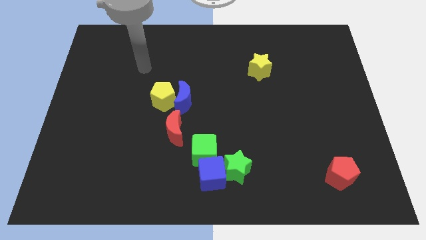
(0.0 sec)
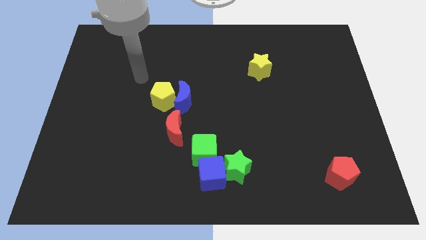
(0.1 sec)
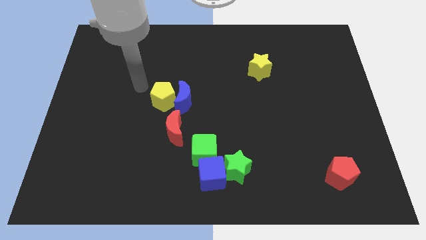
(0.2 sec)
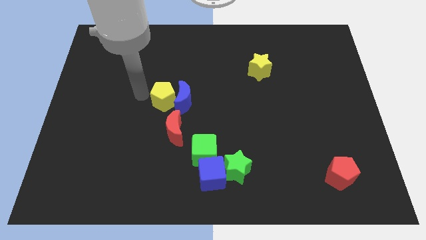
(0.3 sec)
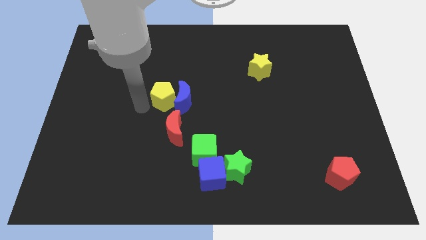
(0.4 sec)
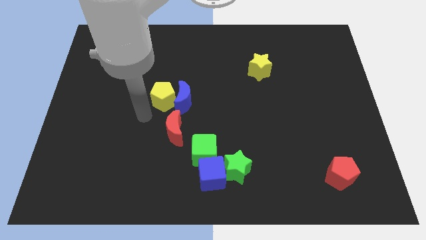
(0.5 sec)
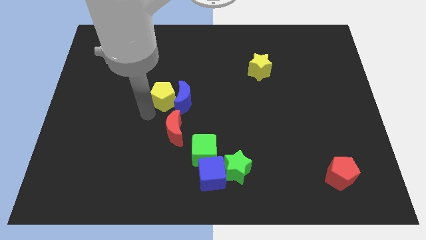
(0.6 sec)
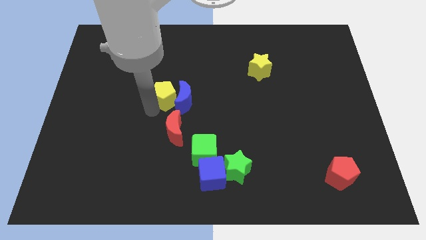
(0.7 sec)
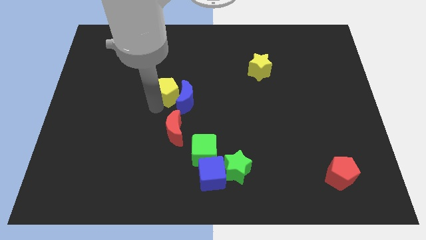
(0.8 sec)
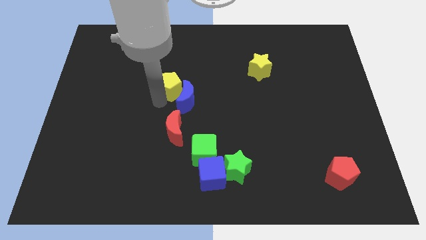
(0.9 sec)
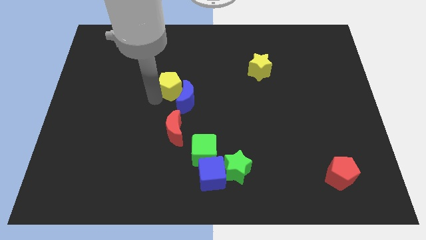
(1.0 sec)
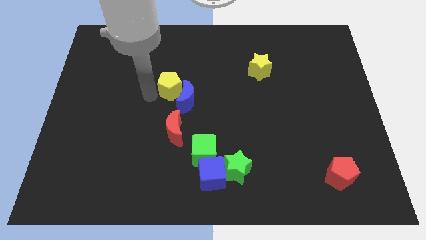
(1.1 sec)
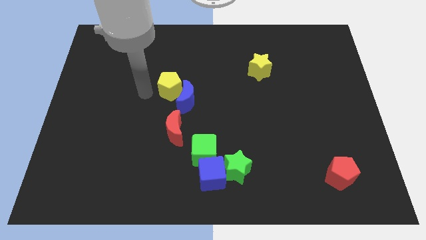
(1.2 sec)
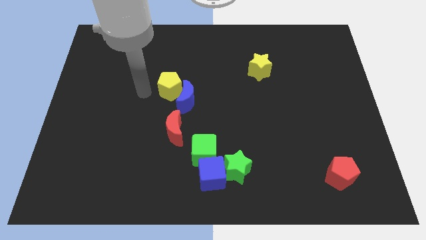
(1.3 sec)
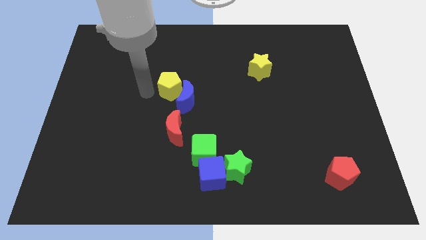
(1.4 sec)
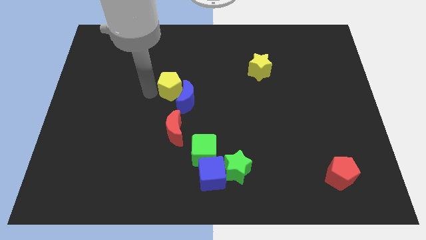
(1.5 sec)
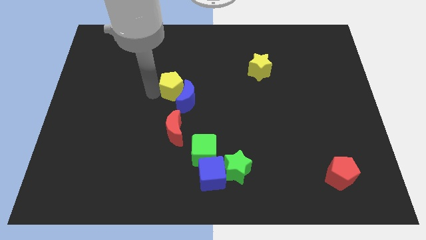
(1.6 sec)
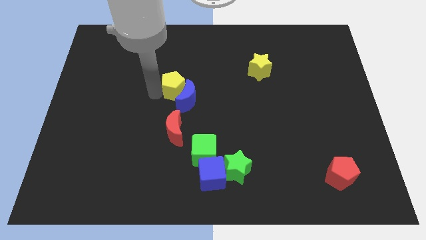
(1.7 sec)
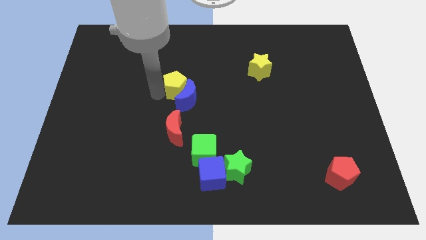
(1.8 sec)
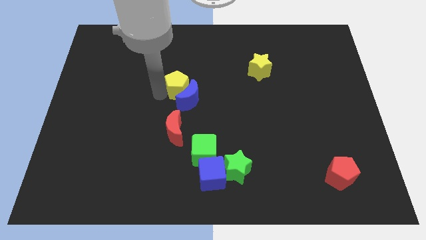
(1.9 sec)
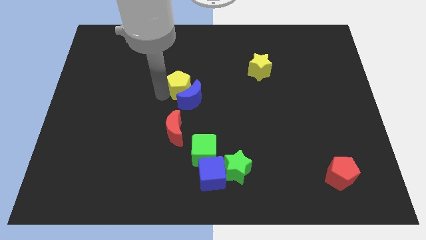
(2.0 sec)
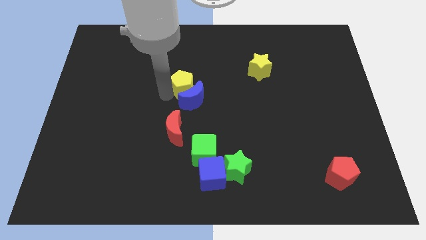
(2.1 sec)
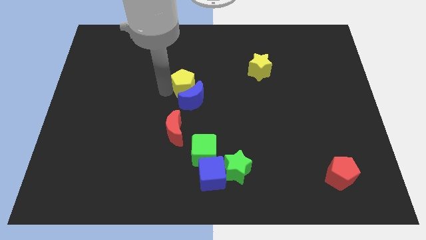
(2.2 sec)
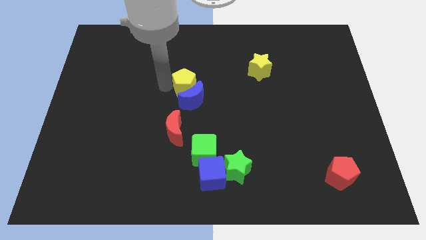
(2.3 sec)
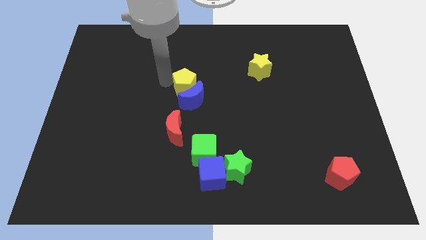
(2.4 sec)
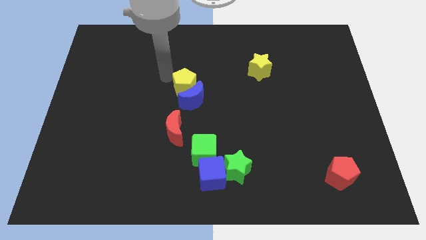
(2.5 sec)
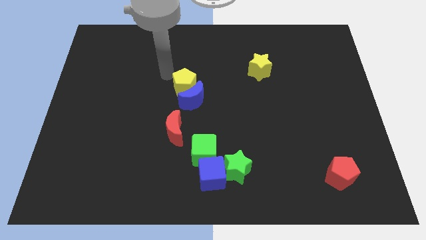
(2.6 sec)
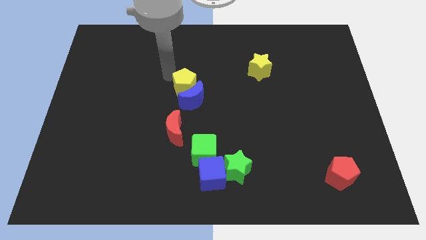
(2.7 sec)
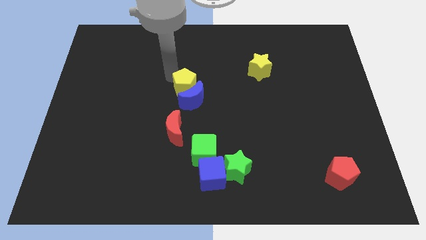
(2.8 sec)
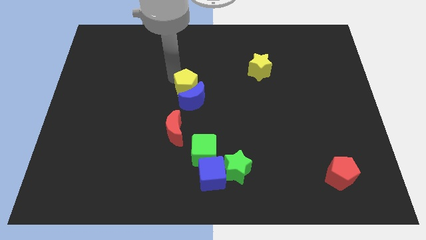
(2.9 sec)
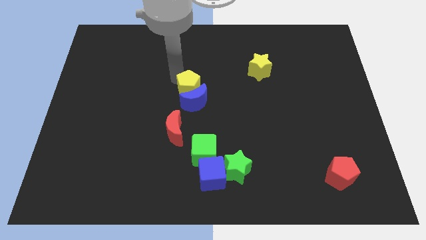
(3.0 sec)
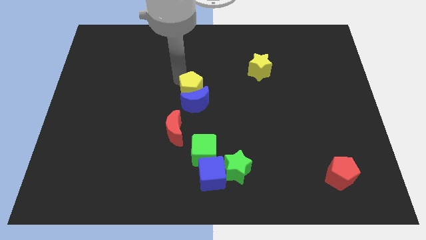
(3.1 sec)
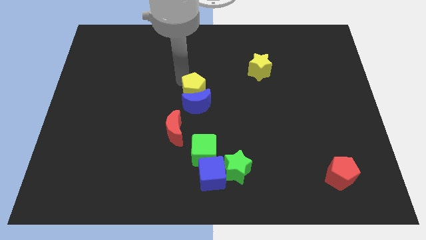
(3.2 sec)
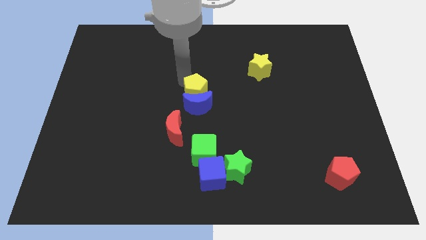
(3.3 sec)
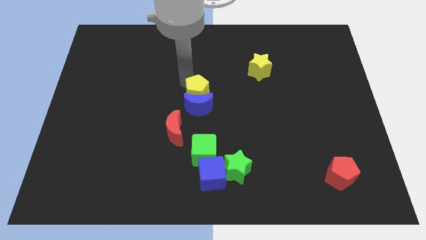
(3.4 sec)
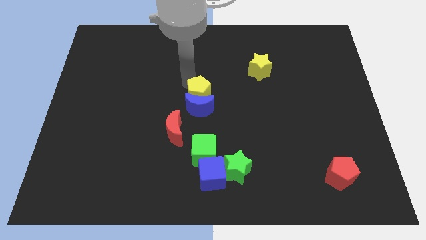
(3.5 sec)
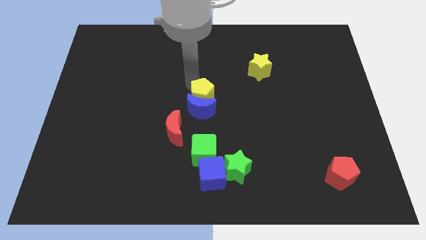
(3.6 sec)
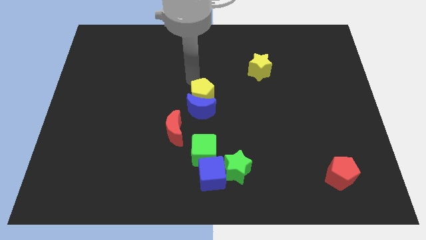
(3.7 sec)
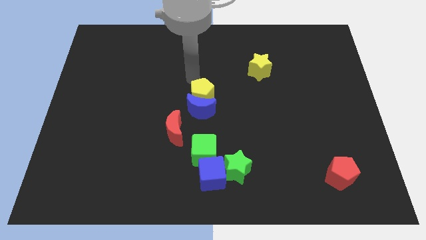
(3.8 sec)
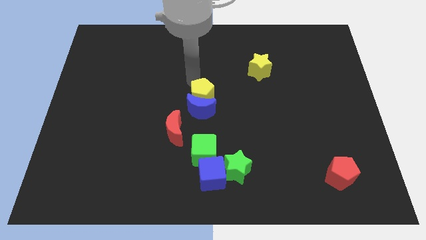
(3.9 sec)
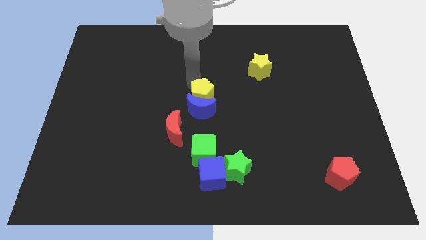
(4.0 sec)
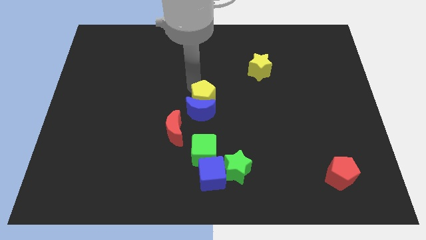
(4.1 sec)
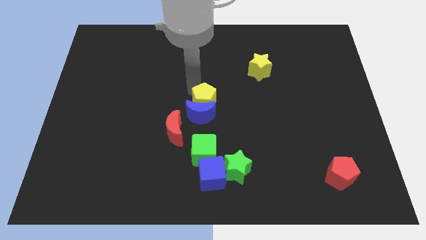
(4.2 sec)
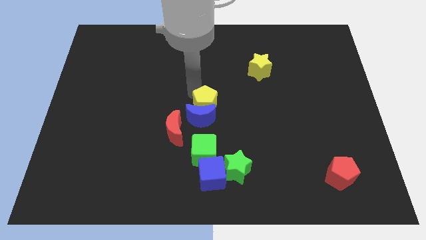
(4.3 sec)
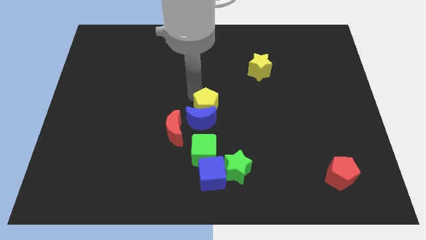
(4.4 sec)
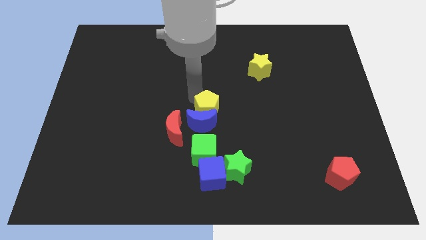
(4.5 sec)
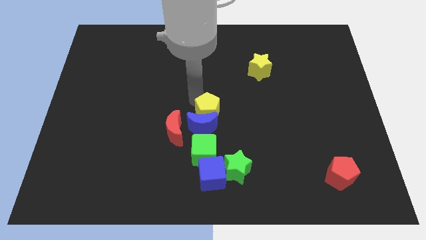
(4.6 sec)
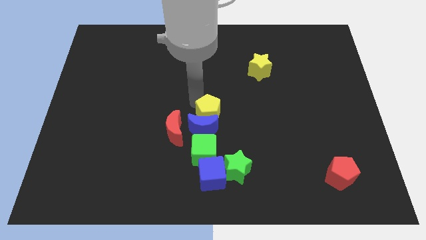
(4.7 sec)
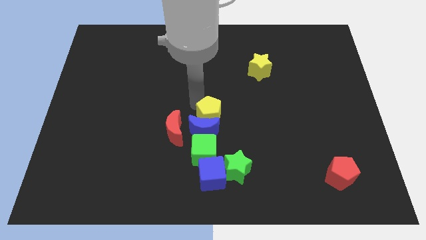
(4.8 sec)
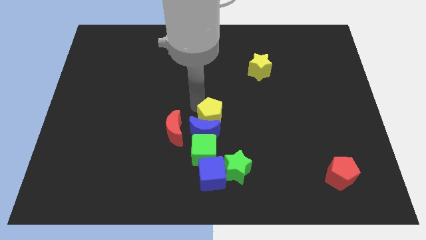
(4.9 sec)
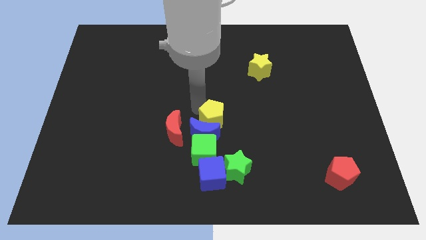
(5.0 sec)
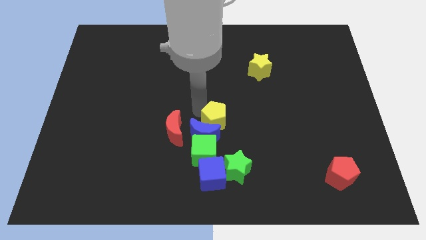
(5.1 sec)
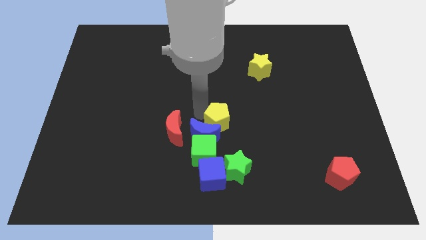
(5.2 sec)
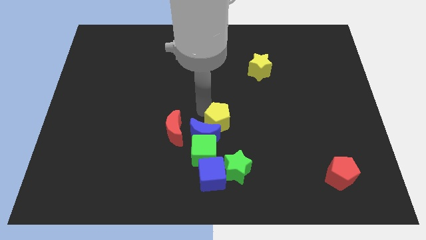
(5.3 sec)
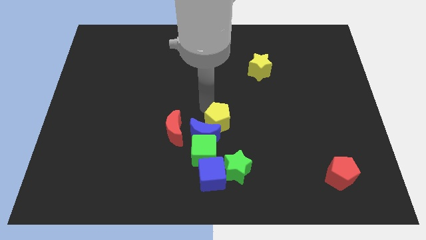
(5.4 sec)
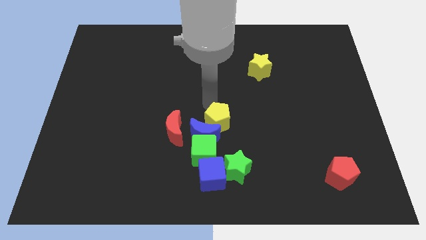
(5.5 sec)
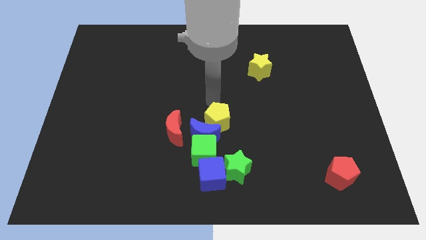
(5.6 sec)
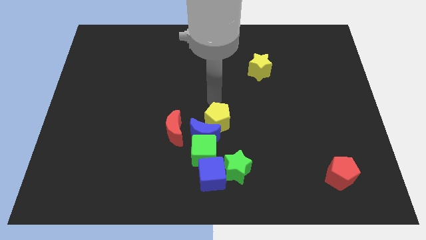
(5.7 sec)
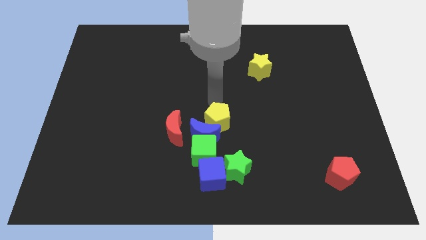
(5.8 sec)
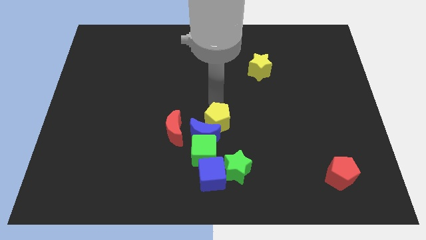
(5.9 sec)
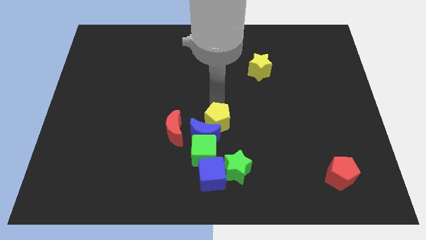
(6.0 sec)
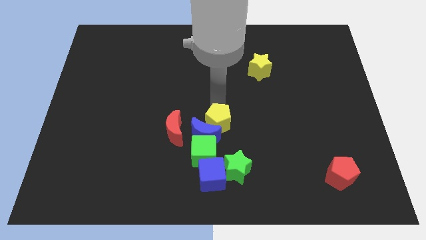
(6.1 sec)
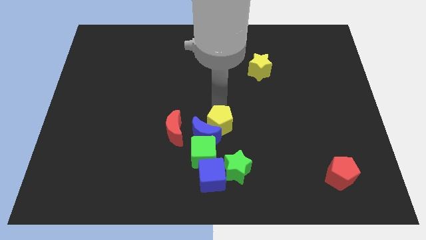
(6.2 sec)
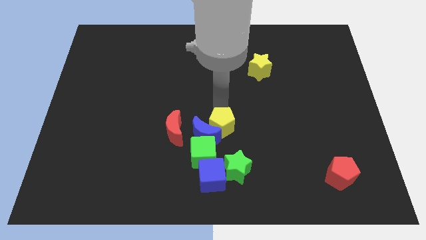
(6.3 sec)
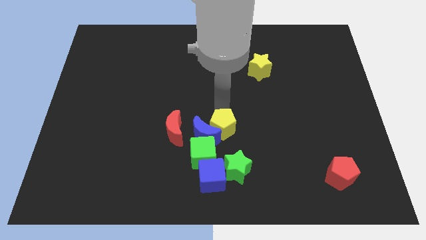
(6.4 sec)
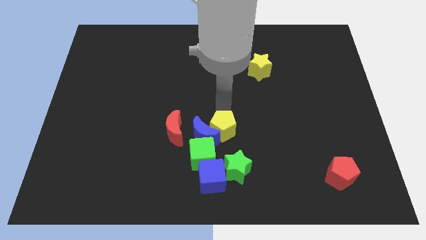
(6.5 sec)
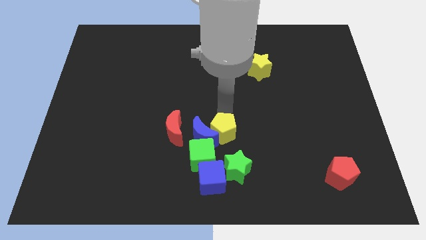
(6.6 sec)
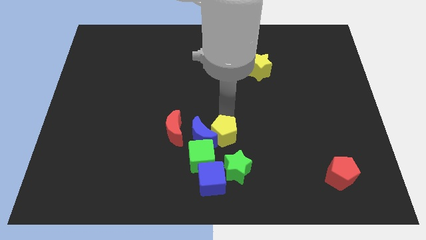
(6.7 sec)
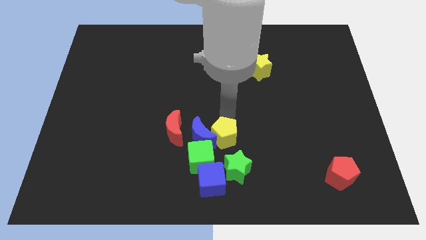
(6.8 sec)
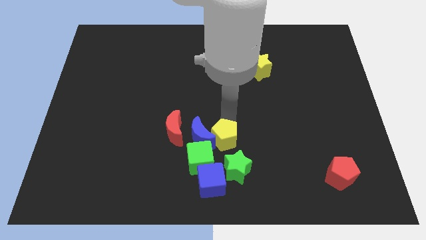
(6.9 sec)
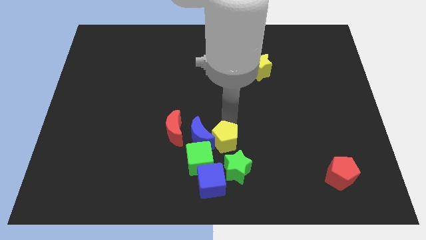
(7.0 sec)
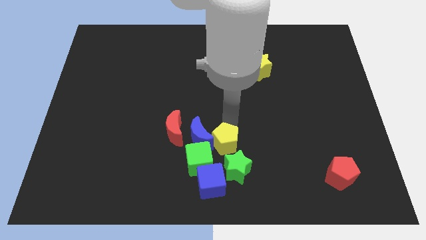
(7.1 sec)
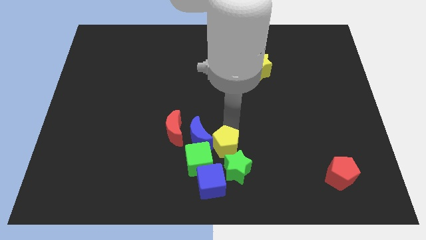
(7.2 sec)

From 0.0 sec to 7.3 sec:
move the yellow pentagon close to the green star

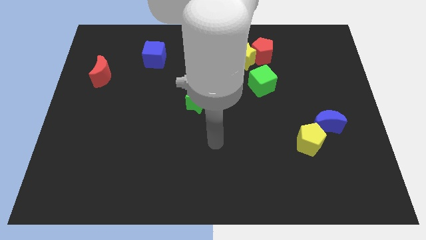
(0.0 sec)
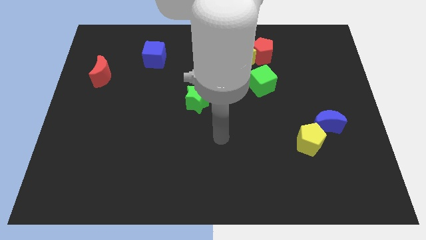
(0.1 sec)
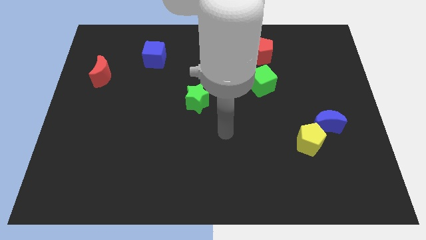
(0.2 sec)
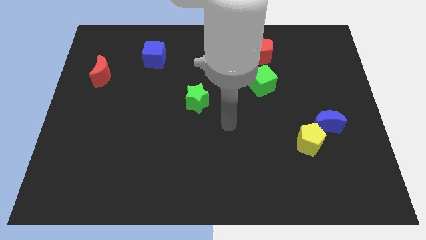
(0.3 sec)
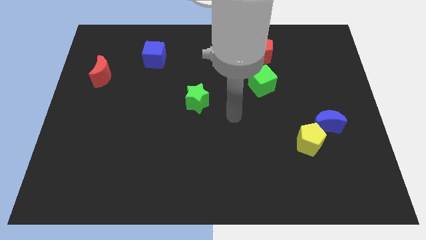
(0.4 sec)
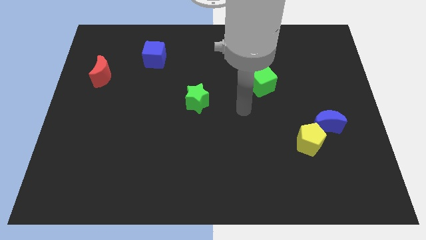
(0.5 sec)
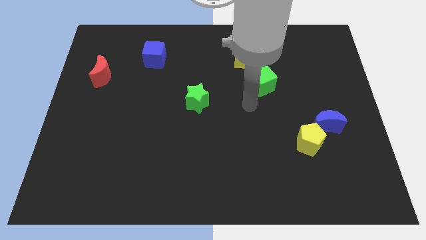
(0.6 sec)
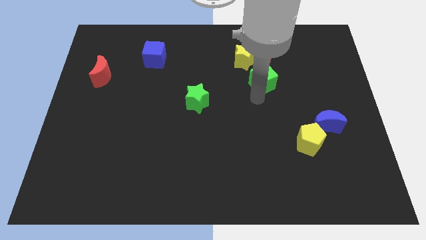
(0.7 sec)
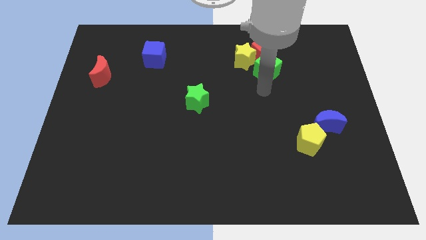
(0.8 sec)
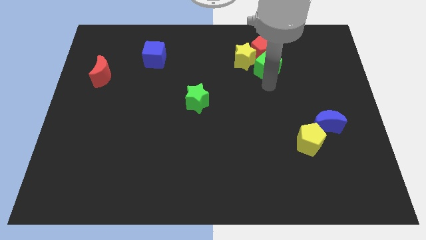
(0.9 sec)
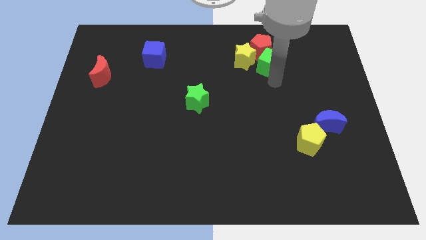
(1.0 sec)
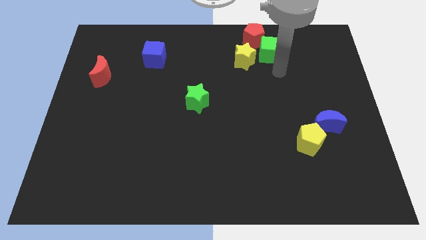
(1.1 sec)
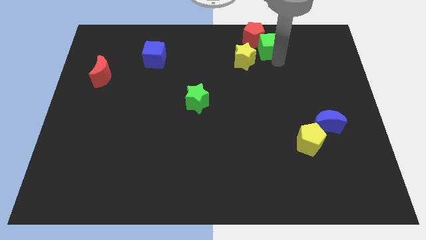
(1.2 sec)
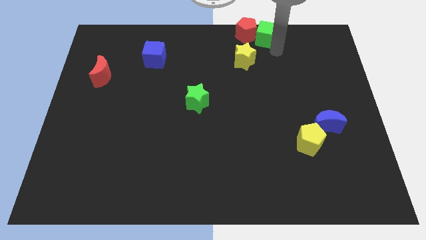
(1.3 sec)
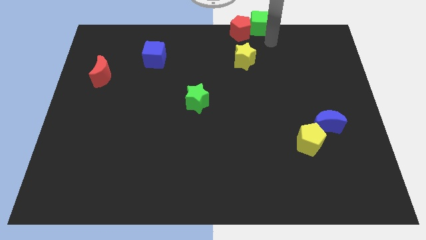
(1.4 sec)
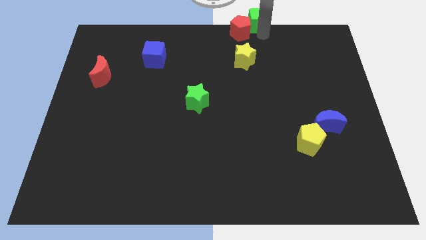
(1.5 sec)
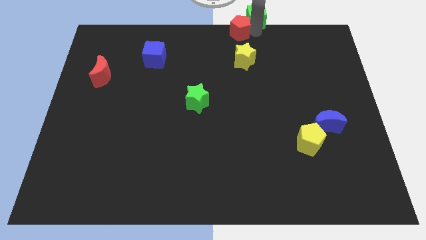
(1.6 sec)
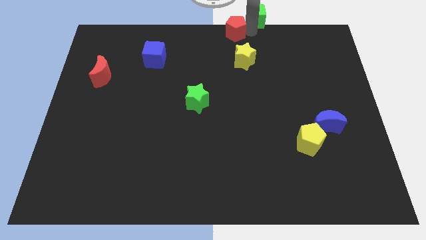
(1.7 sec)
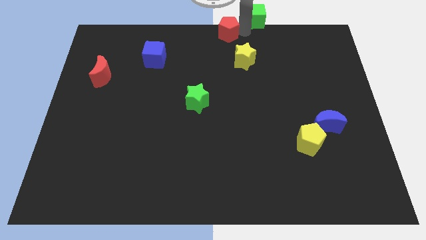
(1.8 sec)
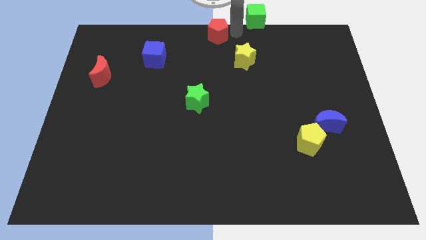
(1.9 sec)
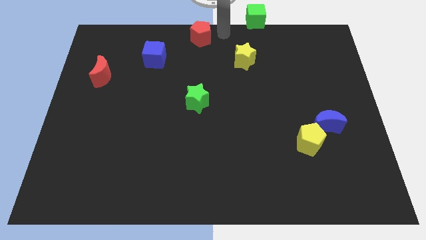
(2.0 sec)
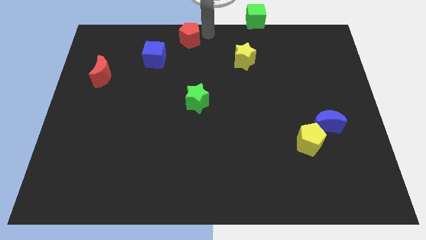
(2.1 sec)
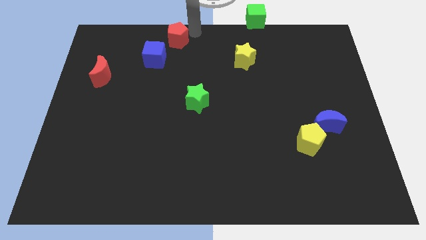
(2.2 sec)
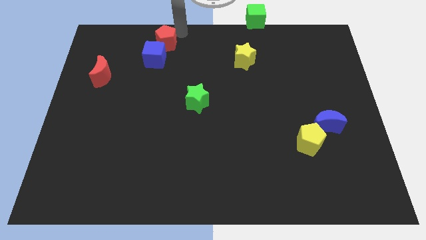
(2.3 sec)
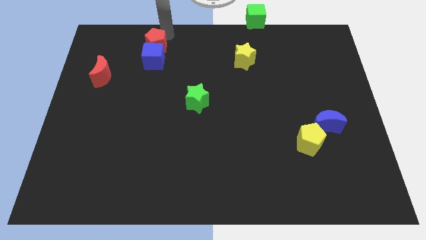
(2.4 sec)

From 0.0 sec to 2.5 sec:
slide the red pentagon next to the blue cube
